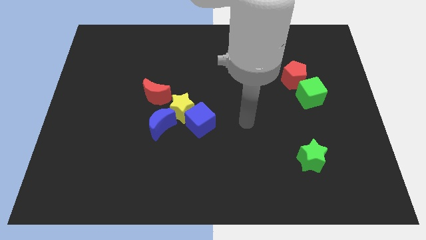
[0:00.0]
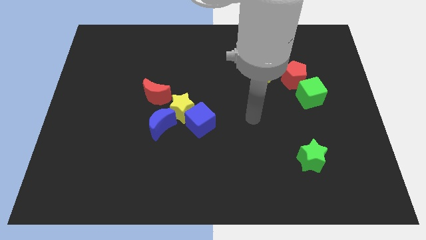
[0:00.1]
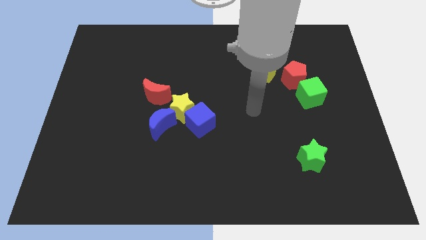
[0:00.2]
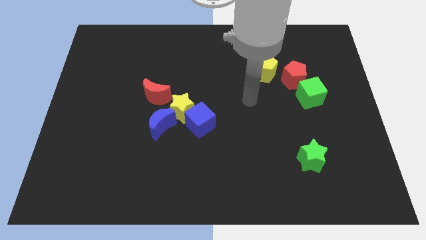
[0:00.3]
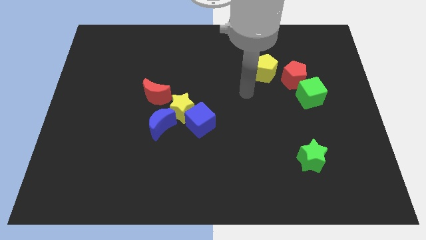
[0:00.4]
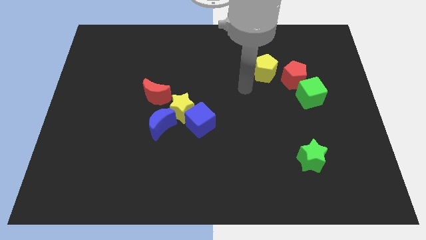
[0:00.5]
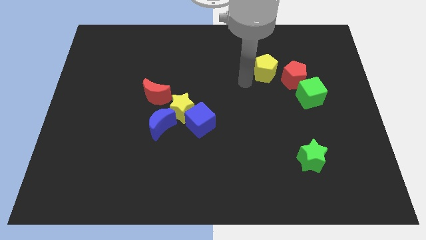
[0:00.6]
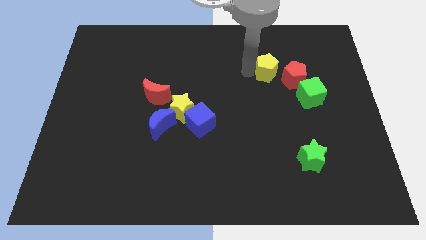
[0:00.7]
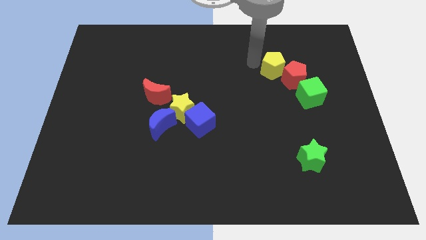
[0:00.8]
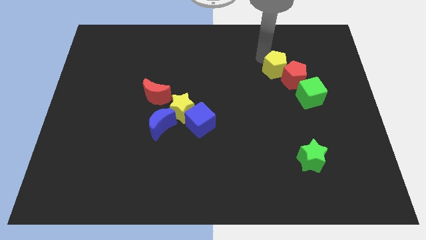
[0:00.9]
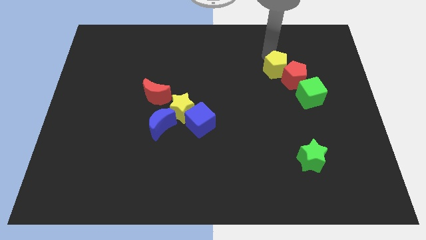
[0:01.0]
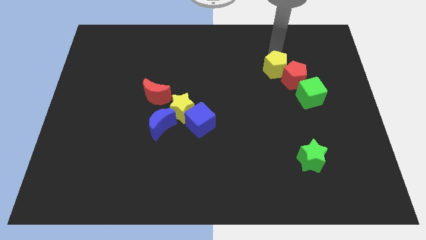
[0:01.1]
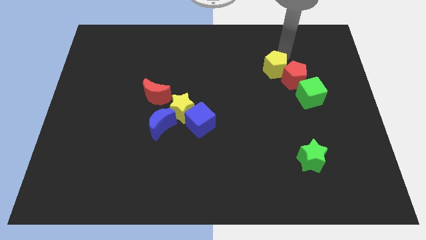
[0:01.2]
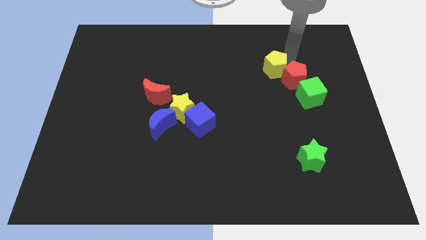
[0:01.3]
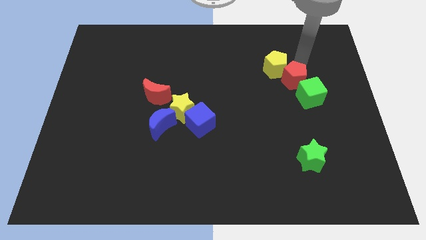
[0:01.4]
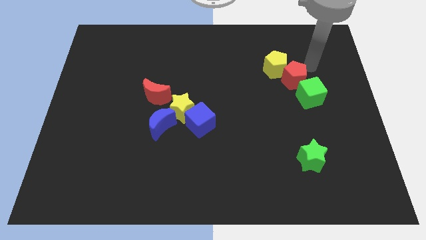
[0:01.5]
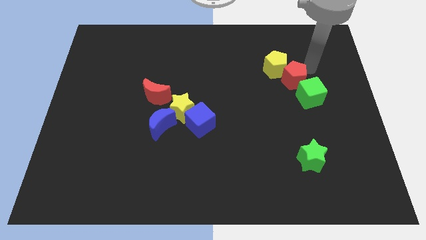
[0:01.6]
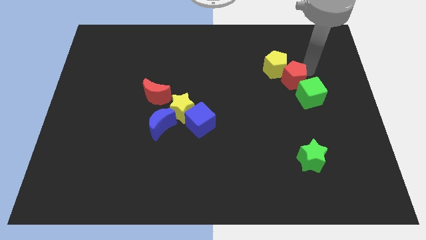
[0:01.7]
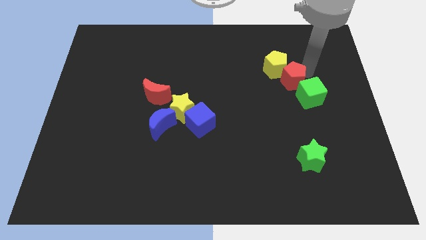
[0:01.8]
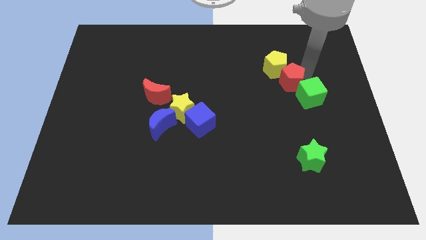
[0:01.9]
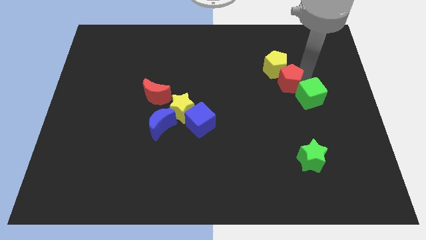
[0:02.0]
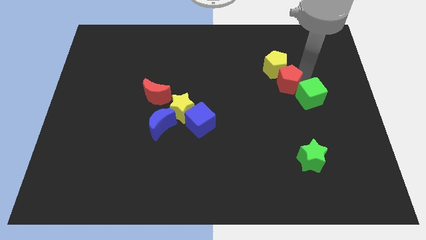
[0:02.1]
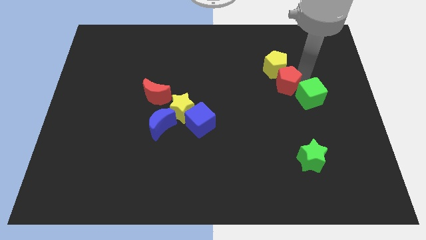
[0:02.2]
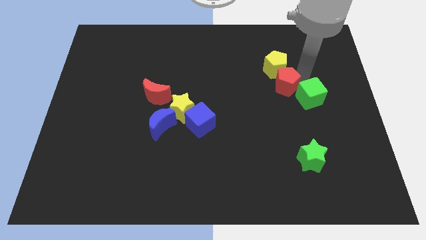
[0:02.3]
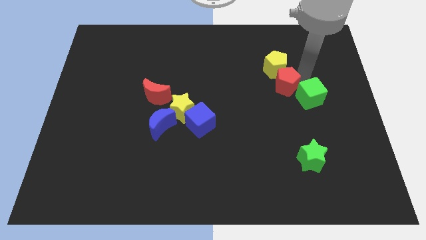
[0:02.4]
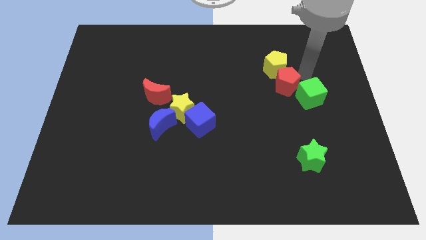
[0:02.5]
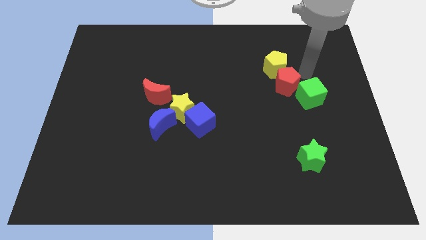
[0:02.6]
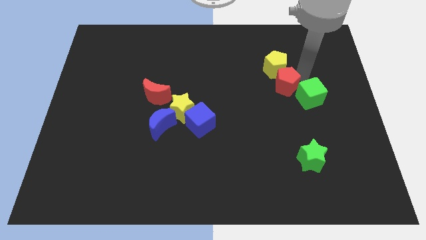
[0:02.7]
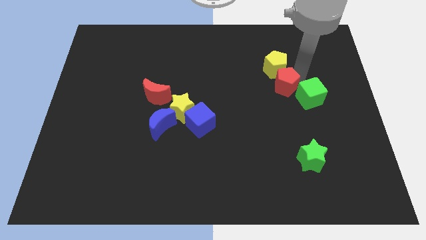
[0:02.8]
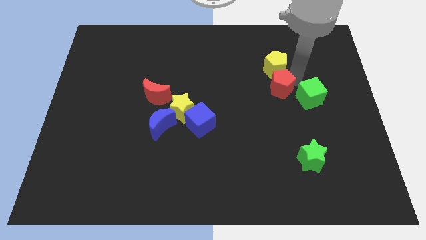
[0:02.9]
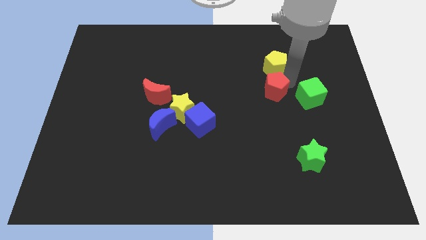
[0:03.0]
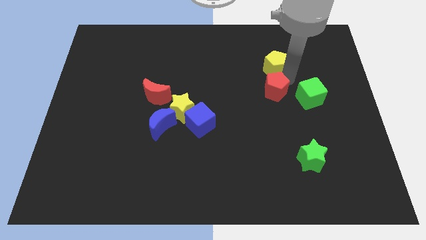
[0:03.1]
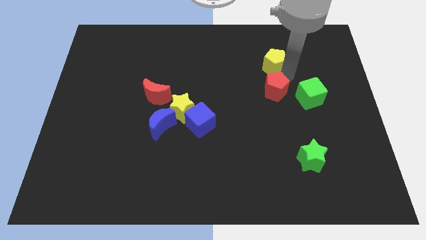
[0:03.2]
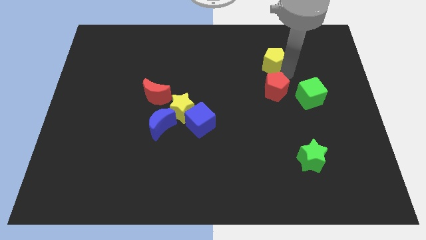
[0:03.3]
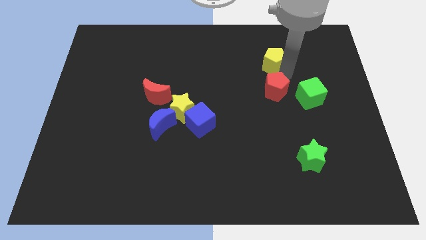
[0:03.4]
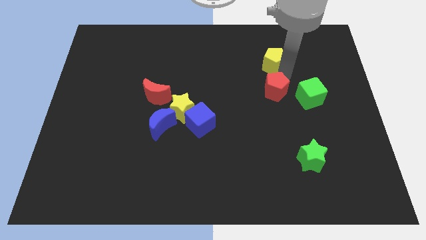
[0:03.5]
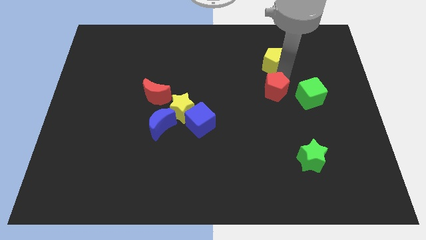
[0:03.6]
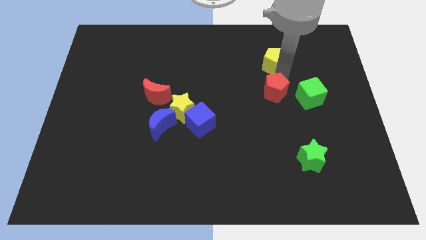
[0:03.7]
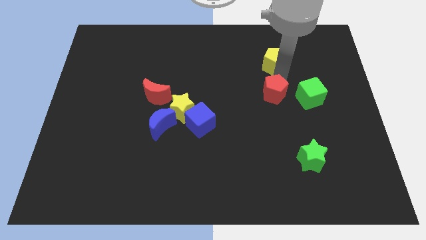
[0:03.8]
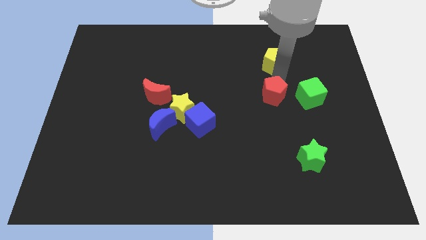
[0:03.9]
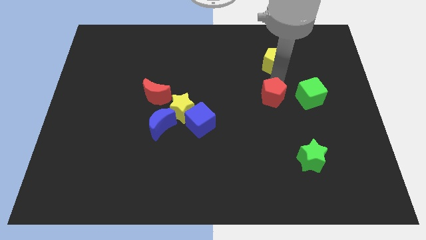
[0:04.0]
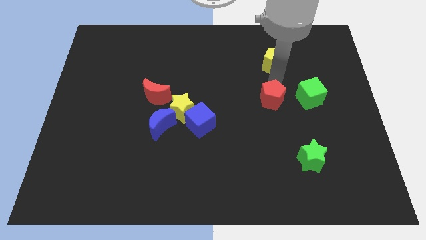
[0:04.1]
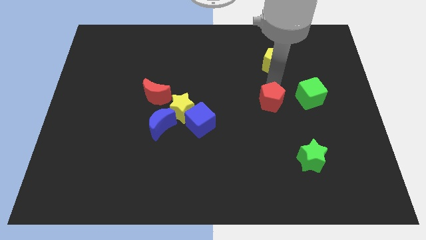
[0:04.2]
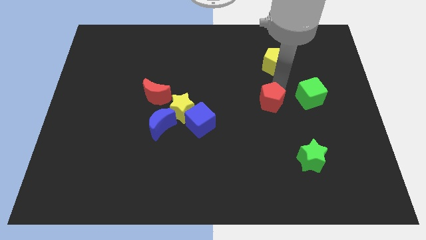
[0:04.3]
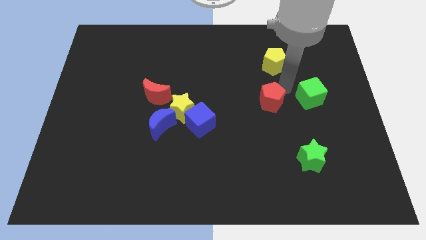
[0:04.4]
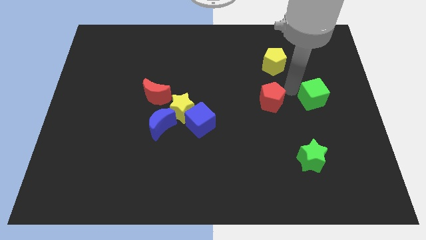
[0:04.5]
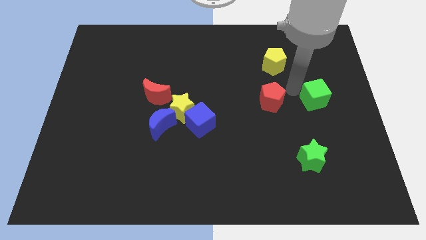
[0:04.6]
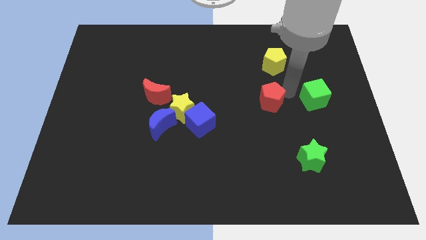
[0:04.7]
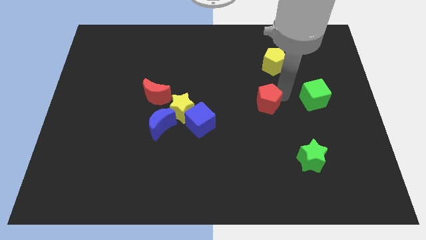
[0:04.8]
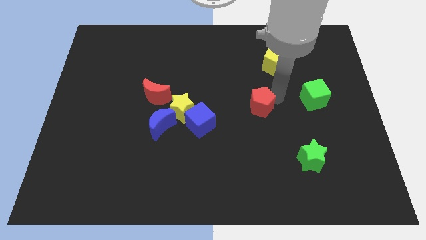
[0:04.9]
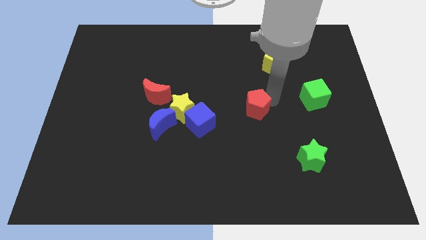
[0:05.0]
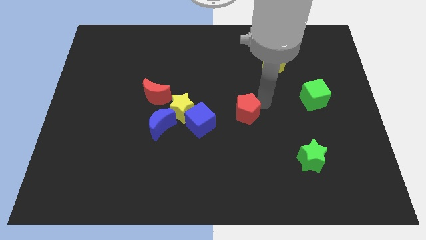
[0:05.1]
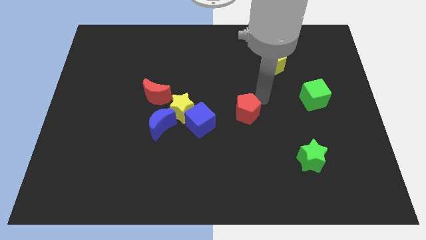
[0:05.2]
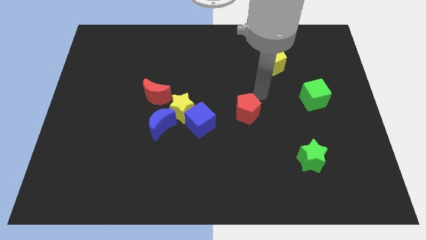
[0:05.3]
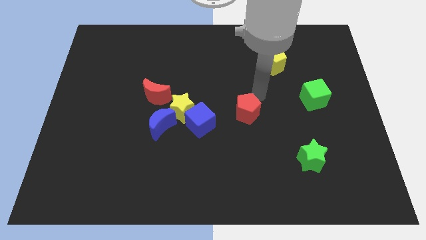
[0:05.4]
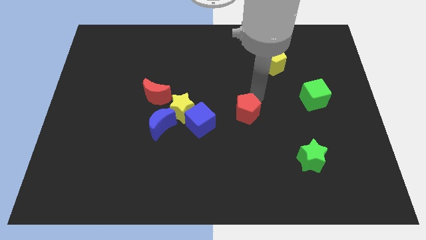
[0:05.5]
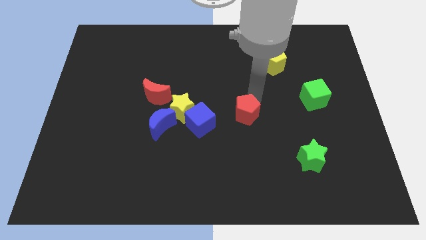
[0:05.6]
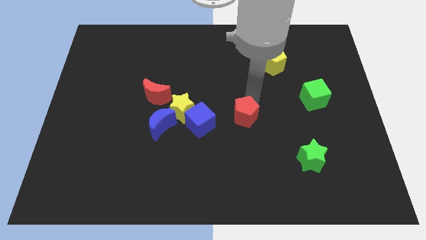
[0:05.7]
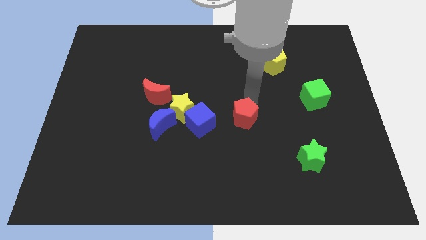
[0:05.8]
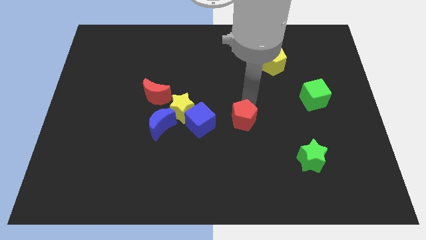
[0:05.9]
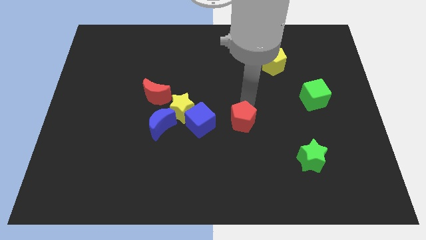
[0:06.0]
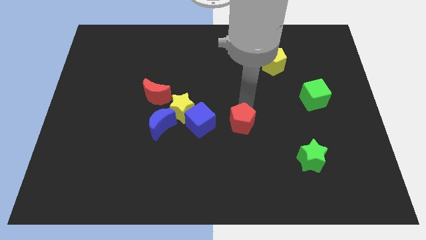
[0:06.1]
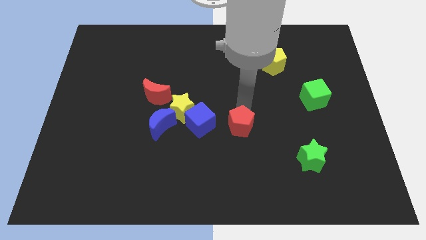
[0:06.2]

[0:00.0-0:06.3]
push the red pentagon diagonally down and to the left

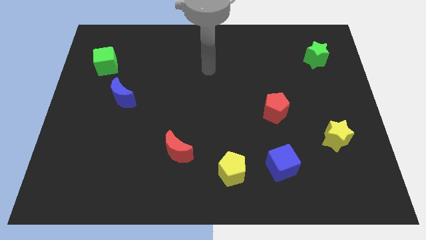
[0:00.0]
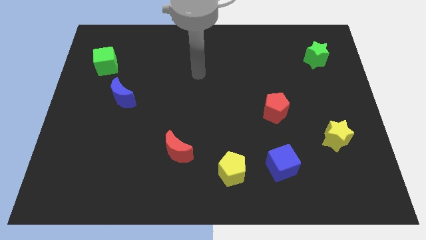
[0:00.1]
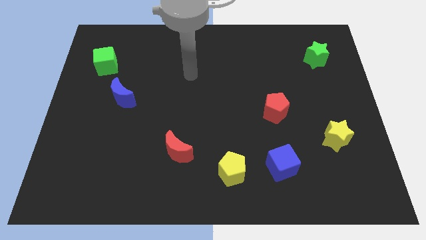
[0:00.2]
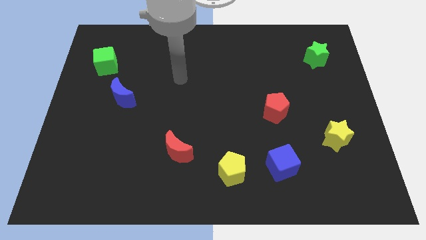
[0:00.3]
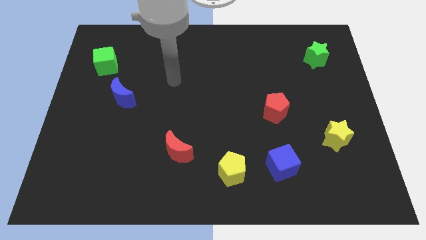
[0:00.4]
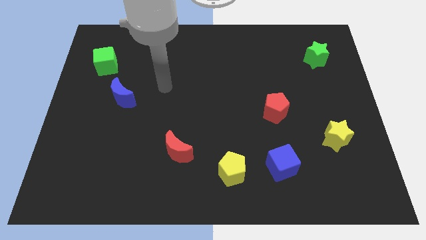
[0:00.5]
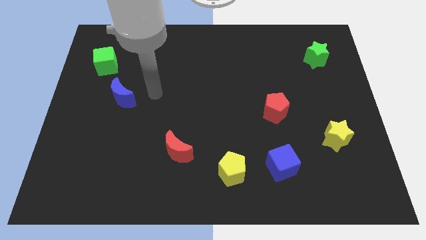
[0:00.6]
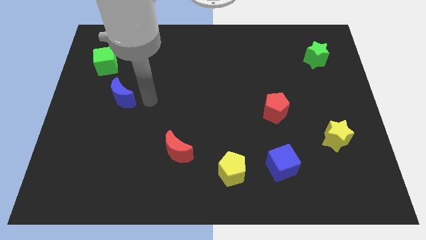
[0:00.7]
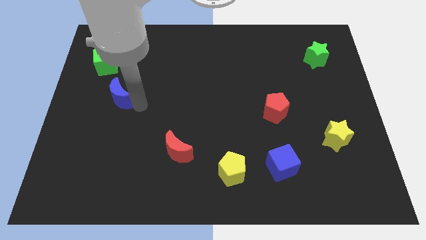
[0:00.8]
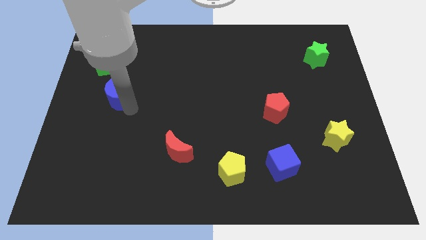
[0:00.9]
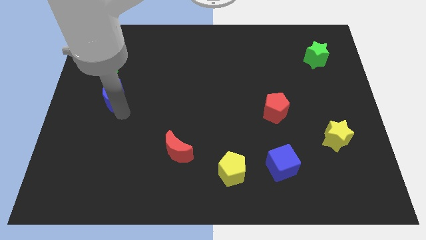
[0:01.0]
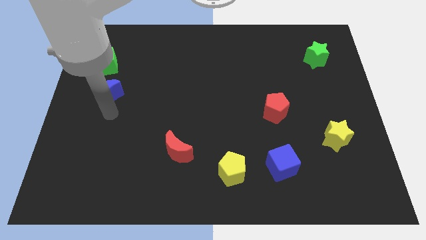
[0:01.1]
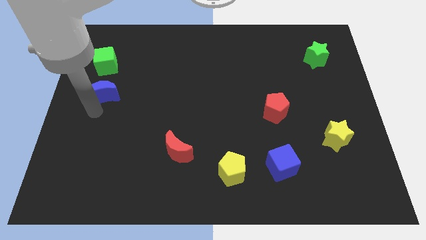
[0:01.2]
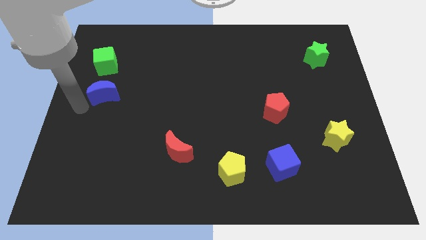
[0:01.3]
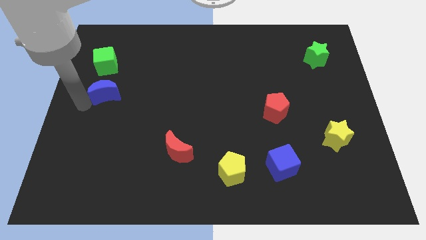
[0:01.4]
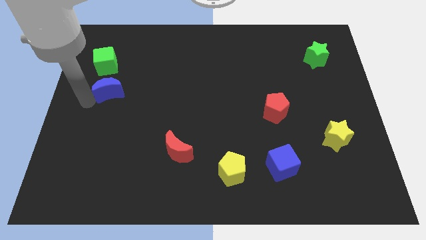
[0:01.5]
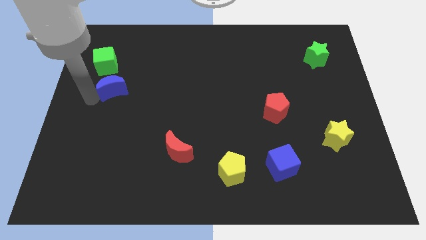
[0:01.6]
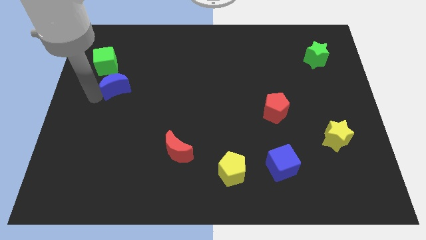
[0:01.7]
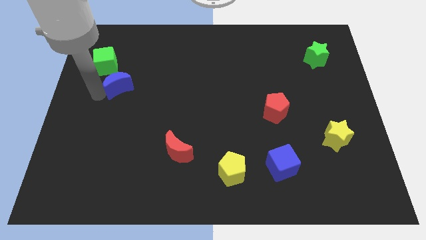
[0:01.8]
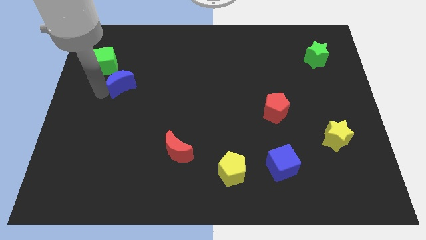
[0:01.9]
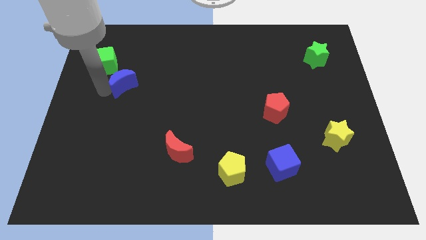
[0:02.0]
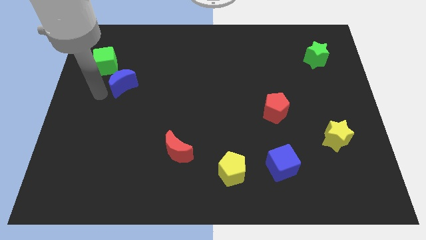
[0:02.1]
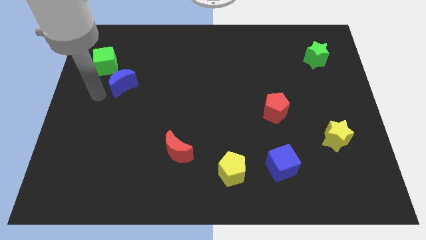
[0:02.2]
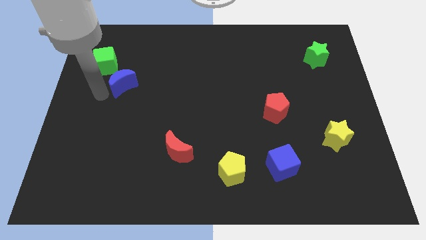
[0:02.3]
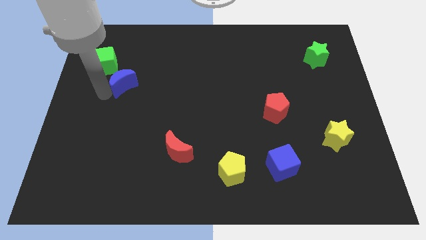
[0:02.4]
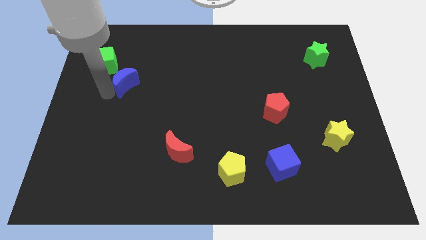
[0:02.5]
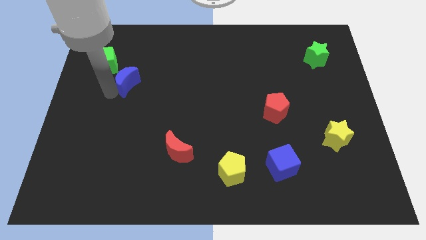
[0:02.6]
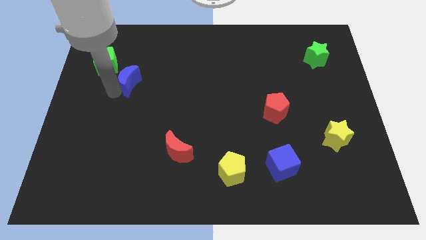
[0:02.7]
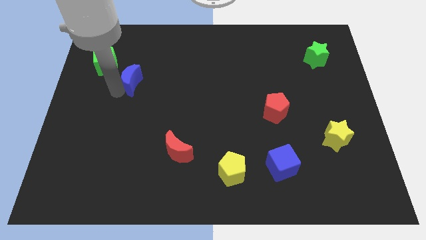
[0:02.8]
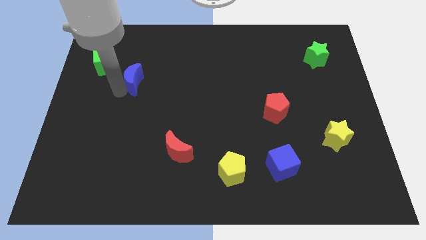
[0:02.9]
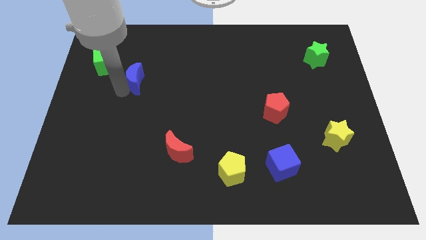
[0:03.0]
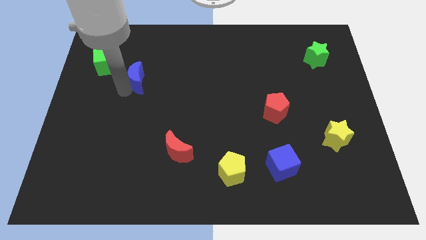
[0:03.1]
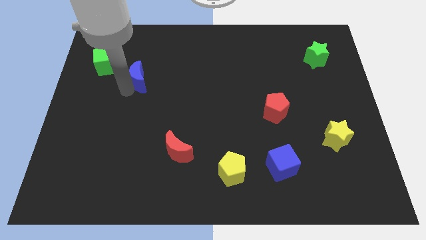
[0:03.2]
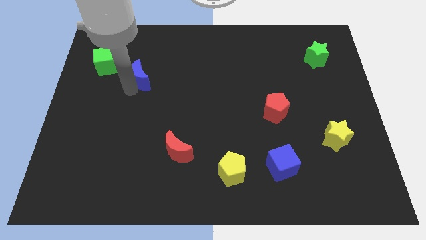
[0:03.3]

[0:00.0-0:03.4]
slide the blue moon a bit up and to the right diagonally
